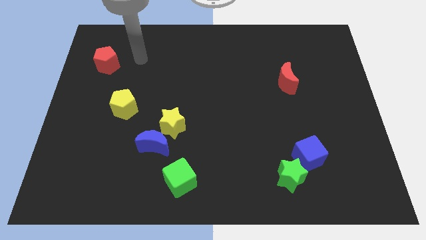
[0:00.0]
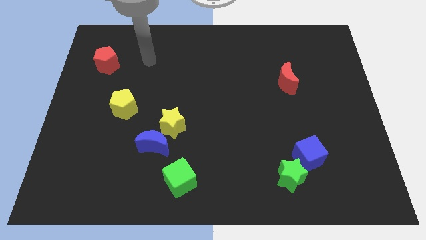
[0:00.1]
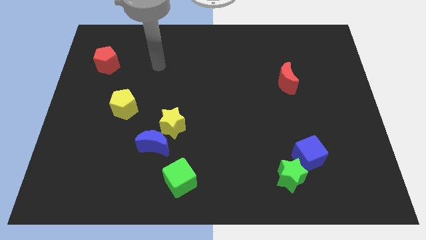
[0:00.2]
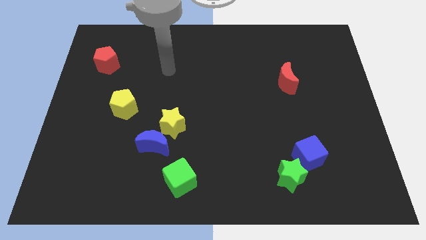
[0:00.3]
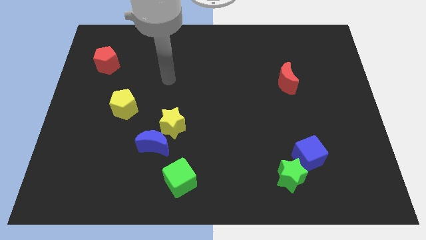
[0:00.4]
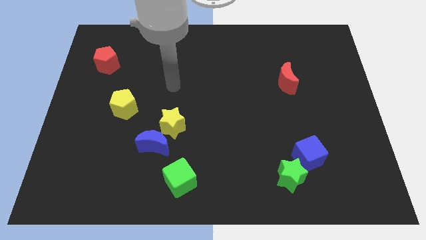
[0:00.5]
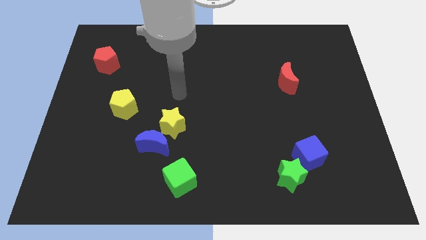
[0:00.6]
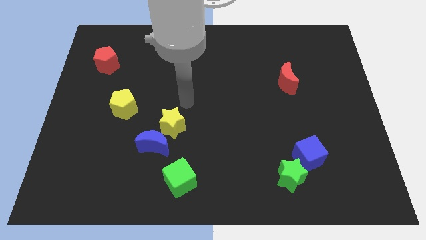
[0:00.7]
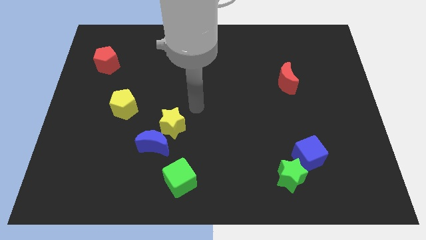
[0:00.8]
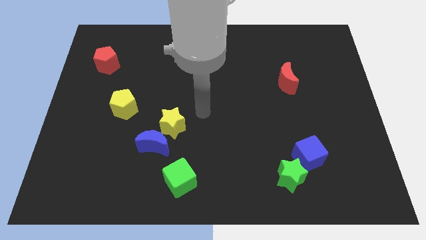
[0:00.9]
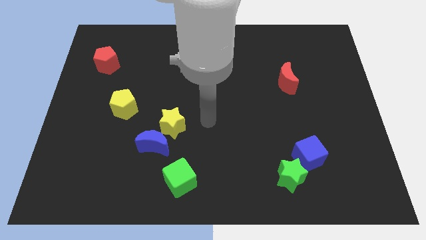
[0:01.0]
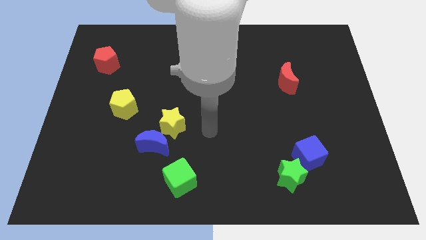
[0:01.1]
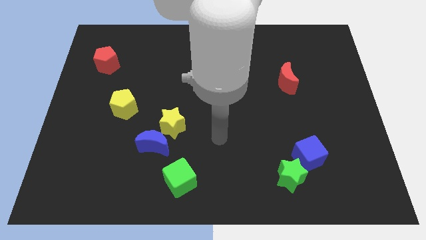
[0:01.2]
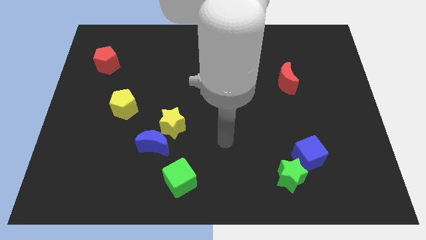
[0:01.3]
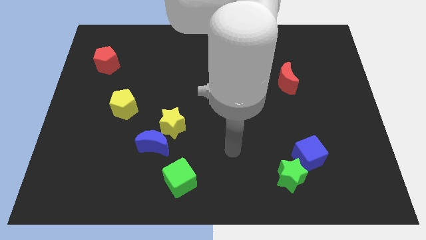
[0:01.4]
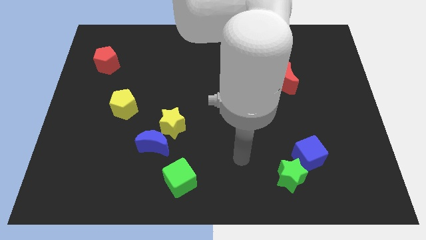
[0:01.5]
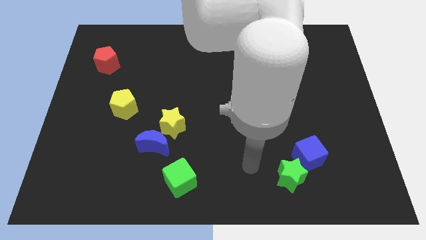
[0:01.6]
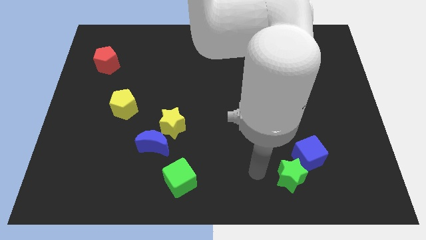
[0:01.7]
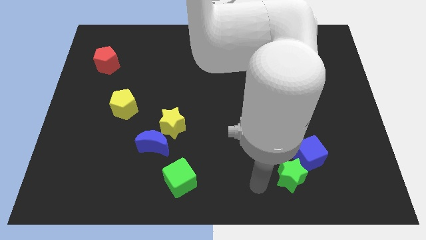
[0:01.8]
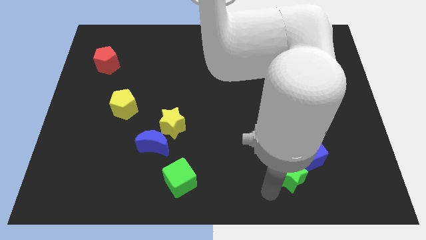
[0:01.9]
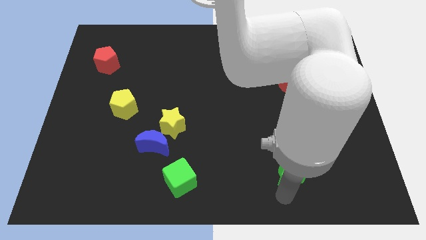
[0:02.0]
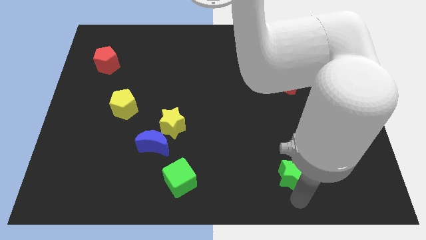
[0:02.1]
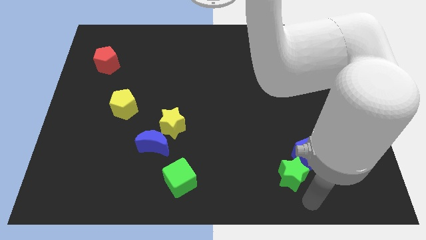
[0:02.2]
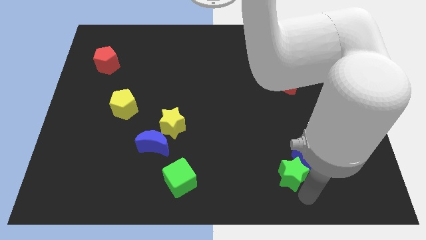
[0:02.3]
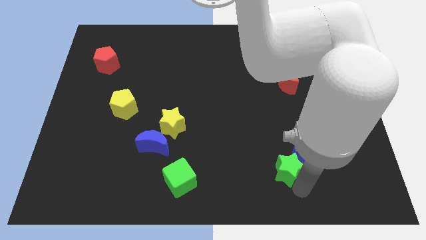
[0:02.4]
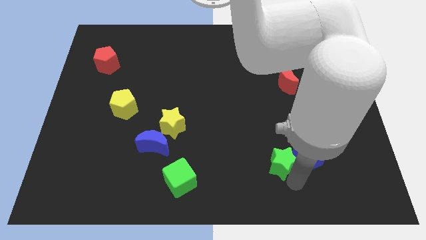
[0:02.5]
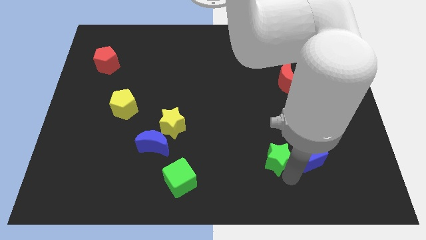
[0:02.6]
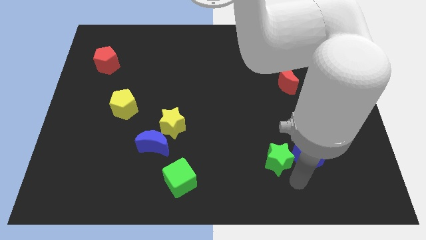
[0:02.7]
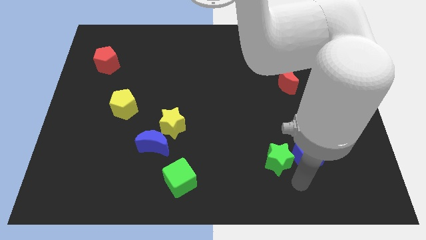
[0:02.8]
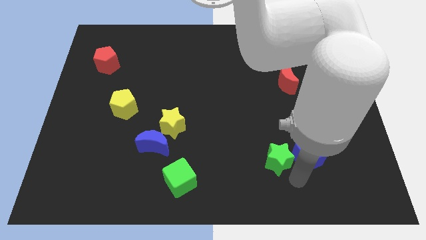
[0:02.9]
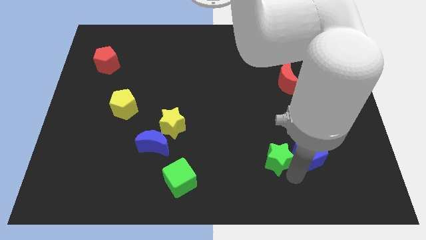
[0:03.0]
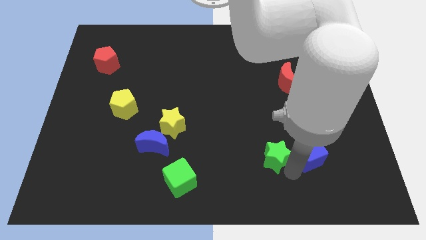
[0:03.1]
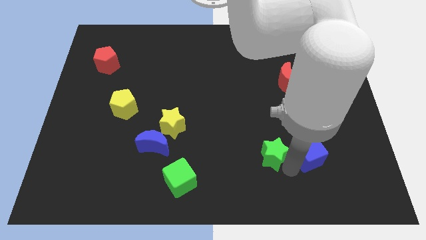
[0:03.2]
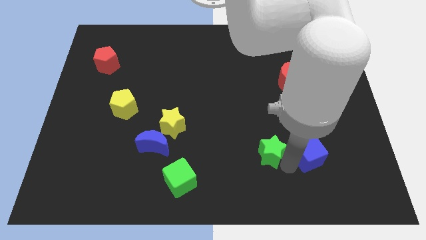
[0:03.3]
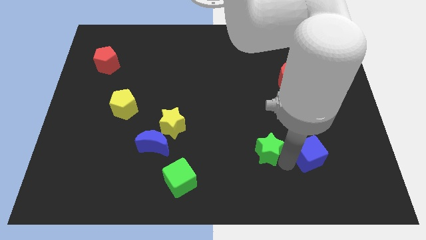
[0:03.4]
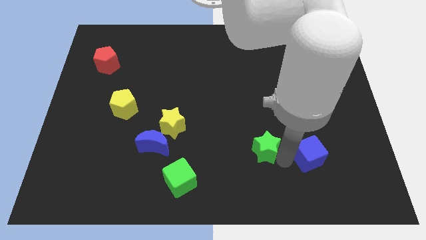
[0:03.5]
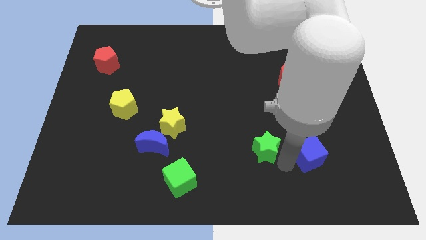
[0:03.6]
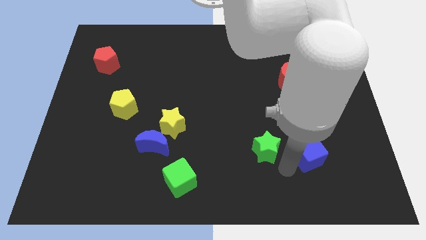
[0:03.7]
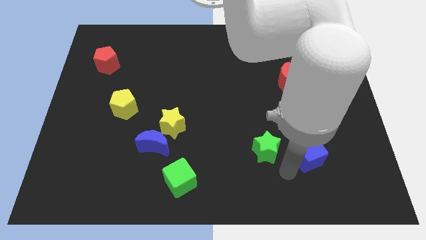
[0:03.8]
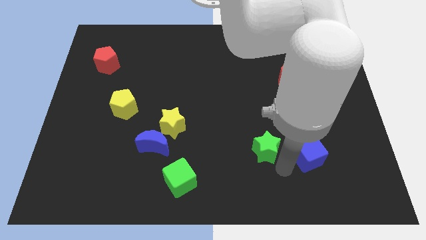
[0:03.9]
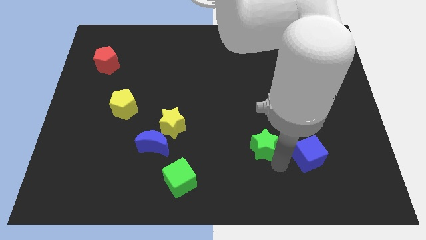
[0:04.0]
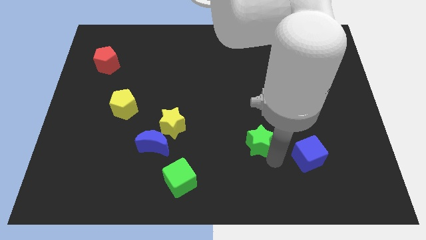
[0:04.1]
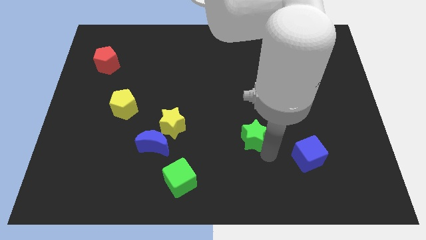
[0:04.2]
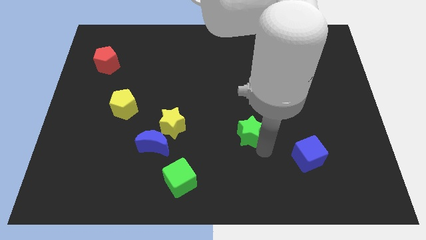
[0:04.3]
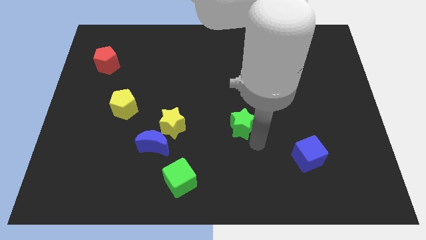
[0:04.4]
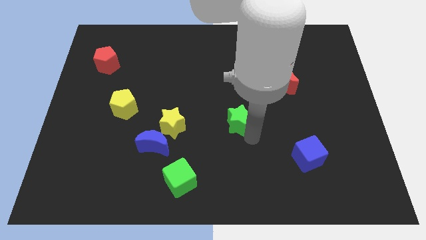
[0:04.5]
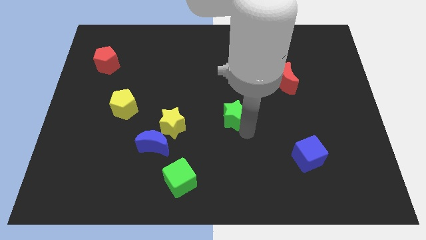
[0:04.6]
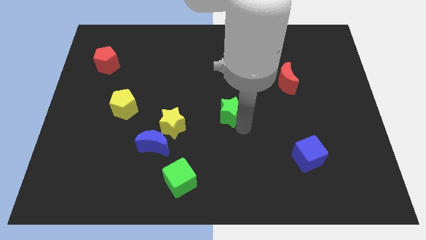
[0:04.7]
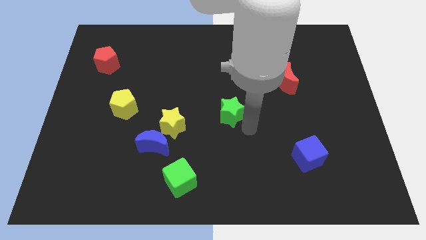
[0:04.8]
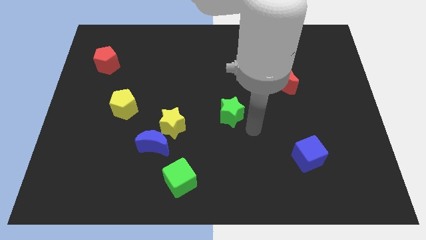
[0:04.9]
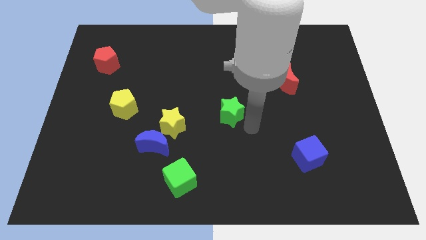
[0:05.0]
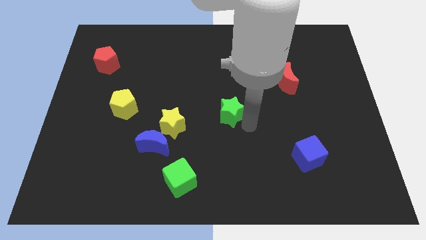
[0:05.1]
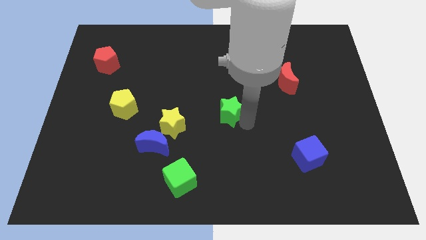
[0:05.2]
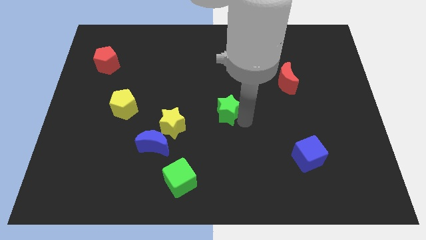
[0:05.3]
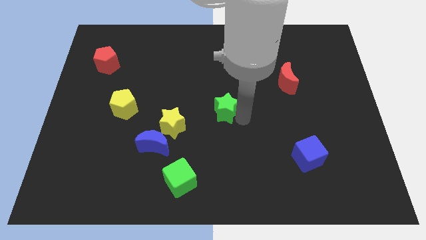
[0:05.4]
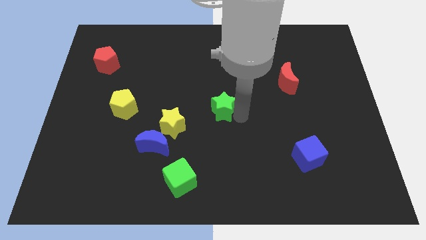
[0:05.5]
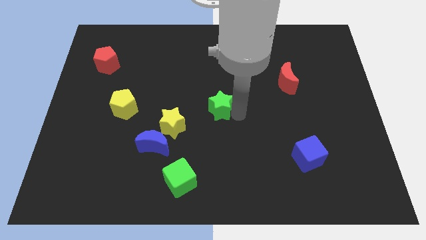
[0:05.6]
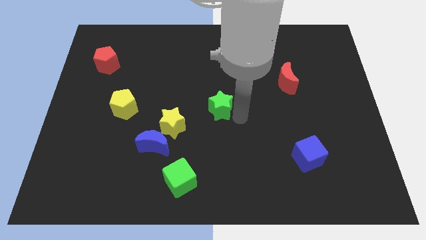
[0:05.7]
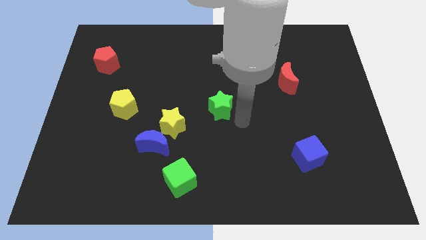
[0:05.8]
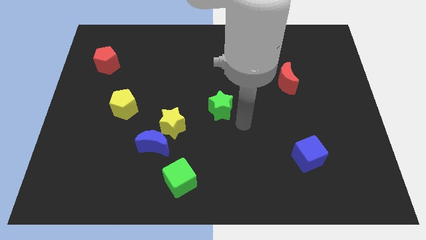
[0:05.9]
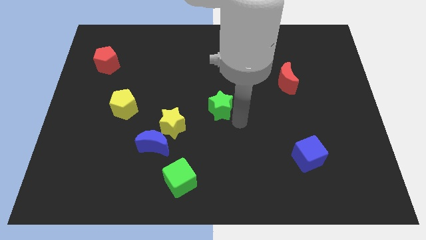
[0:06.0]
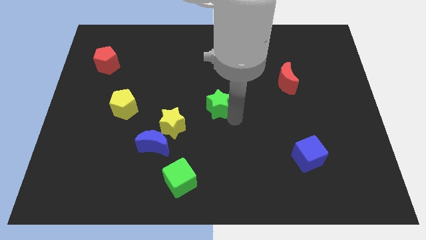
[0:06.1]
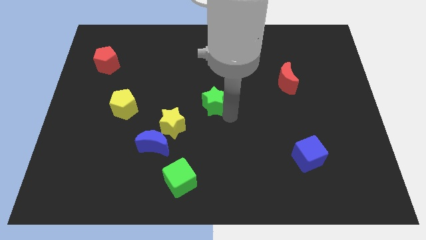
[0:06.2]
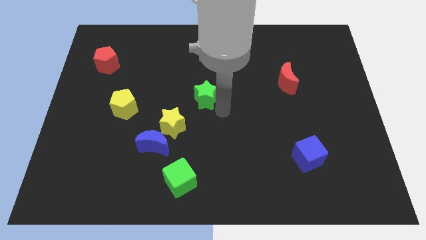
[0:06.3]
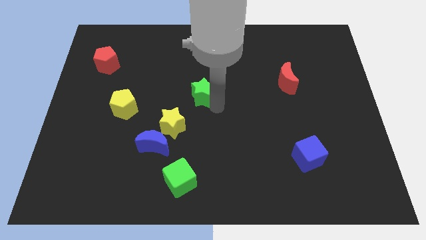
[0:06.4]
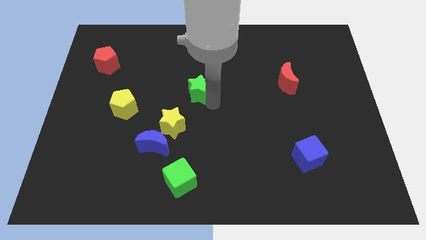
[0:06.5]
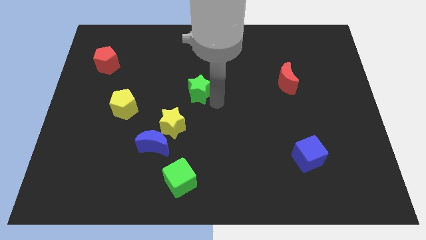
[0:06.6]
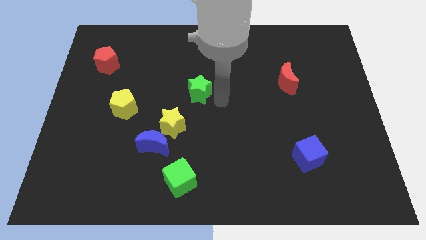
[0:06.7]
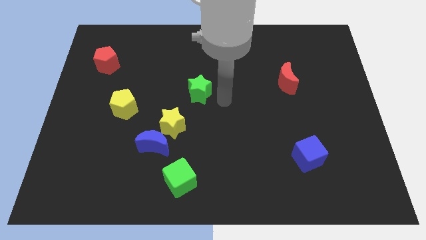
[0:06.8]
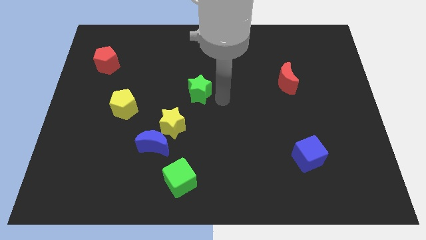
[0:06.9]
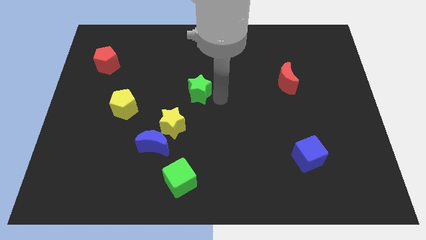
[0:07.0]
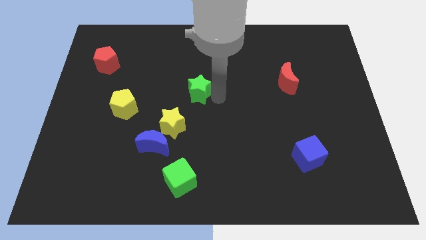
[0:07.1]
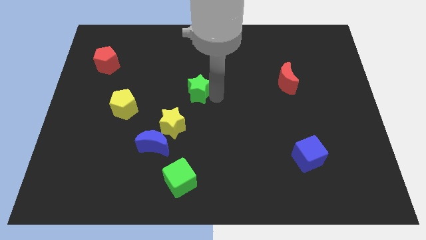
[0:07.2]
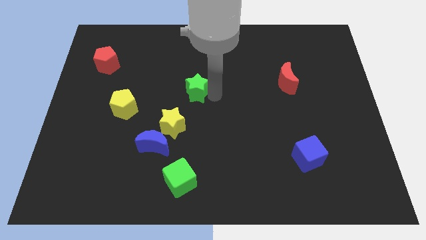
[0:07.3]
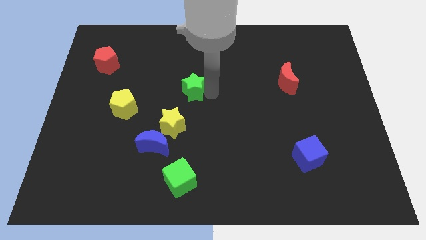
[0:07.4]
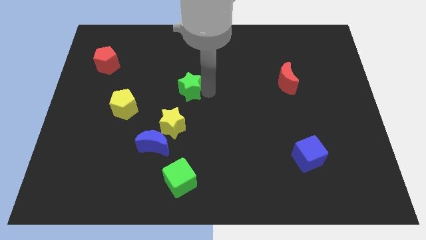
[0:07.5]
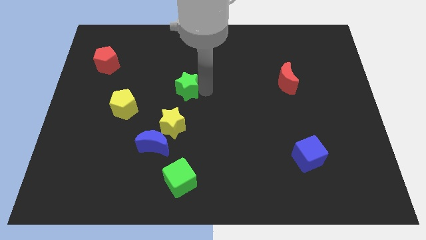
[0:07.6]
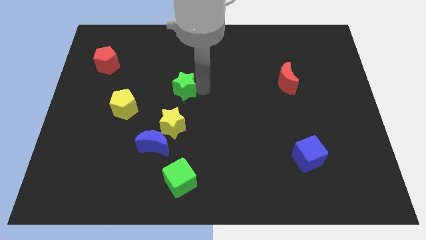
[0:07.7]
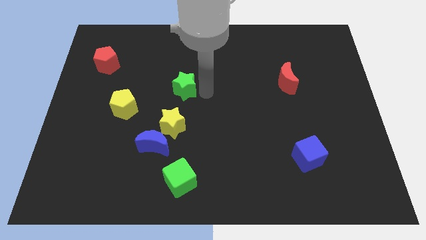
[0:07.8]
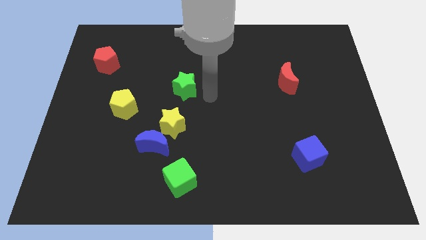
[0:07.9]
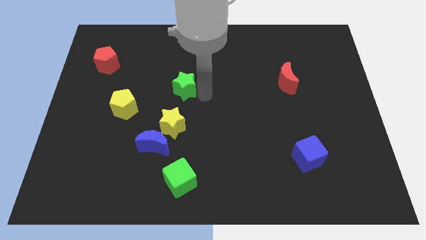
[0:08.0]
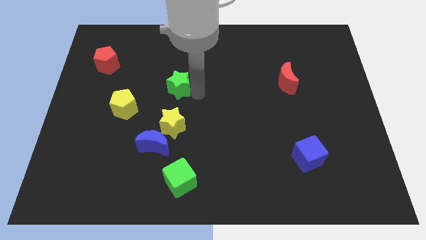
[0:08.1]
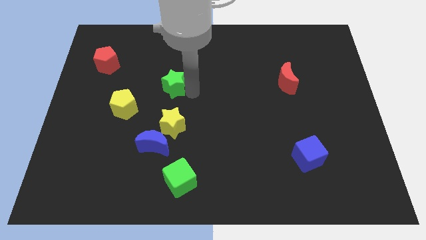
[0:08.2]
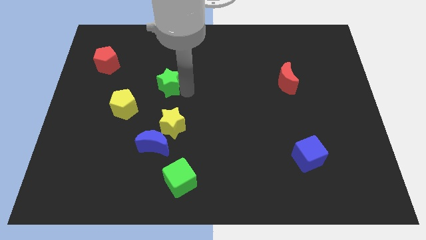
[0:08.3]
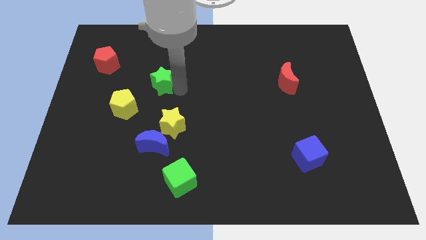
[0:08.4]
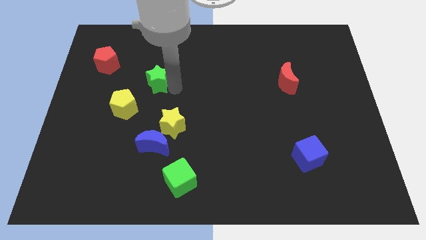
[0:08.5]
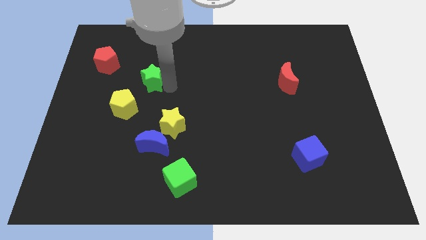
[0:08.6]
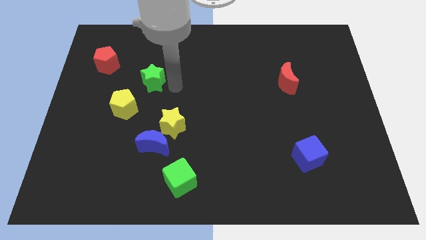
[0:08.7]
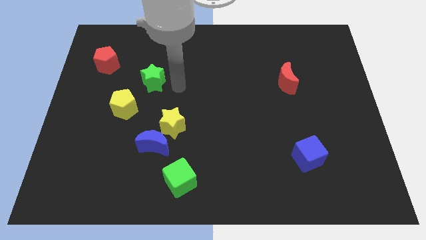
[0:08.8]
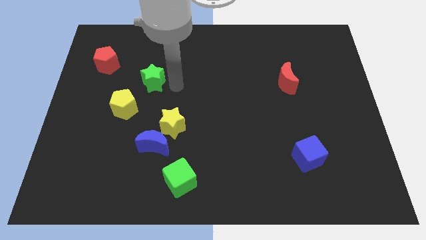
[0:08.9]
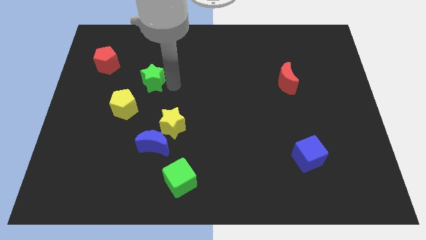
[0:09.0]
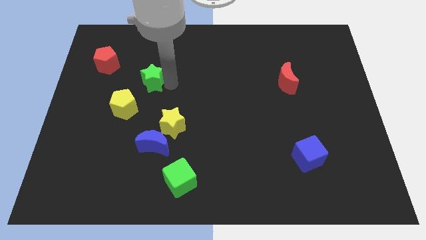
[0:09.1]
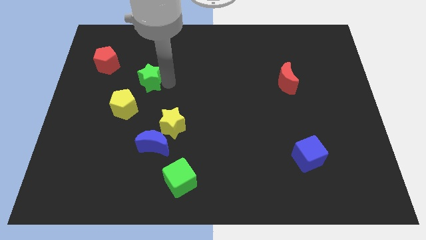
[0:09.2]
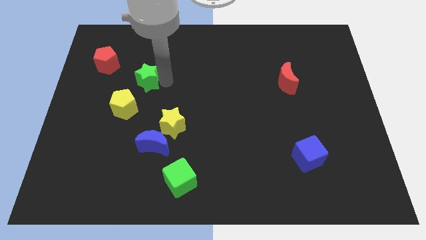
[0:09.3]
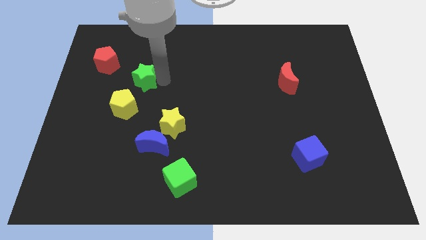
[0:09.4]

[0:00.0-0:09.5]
move the green star to the bottom right side of the red pentagon
